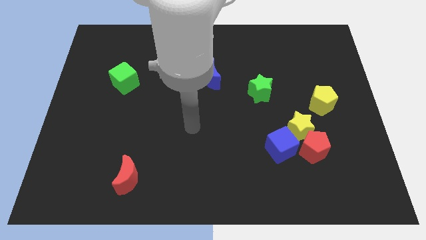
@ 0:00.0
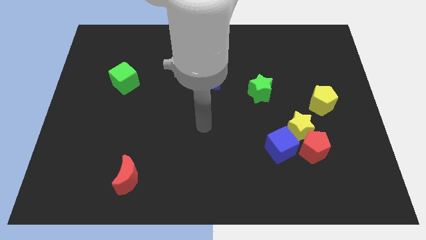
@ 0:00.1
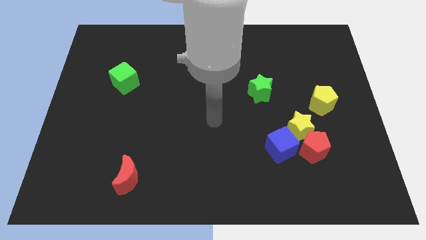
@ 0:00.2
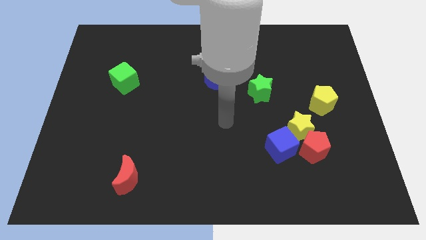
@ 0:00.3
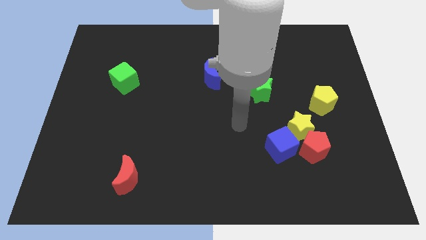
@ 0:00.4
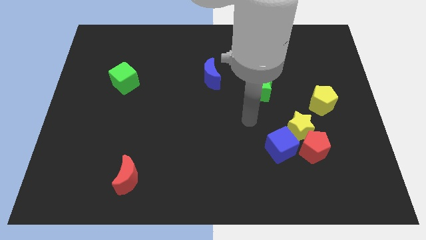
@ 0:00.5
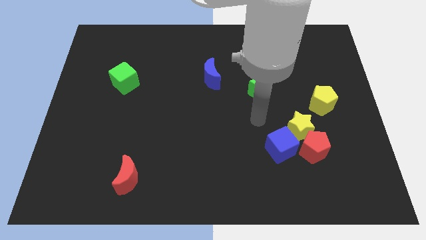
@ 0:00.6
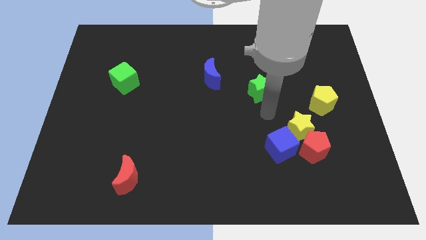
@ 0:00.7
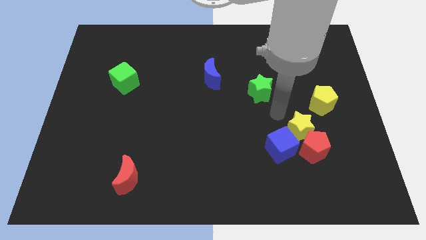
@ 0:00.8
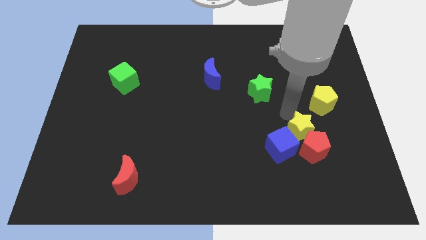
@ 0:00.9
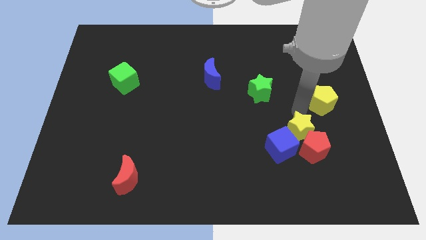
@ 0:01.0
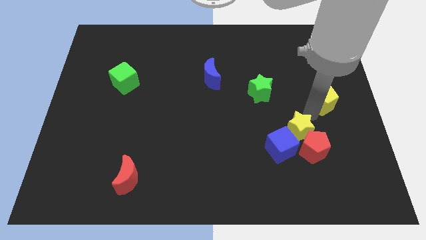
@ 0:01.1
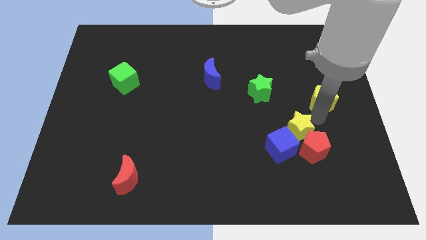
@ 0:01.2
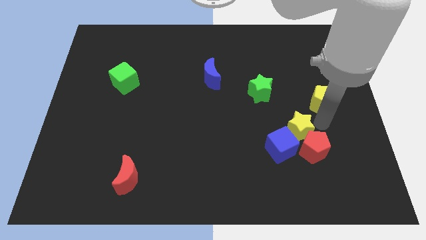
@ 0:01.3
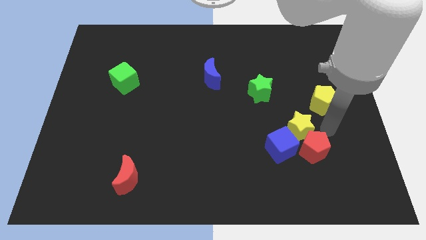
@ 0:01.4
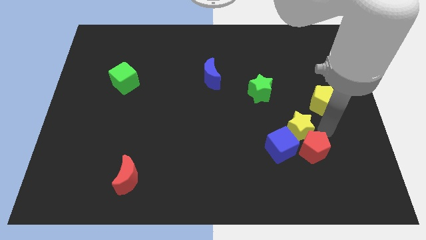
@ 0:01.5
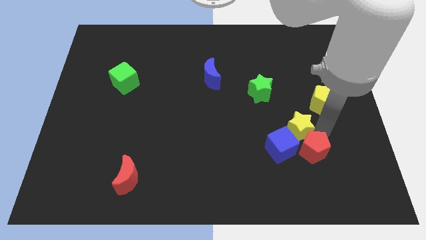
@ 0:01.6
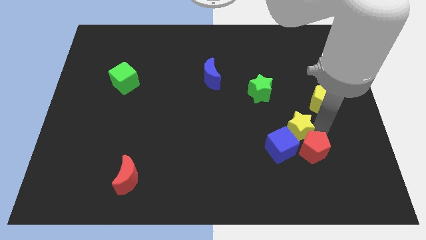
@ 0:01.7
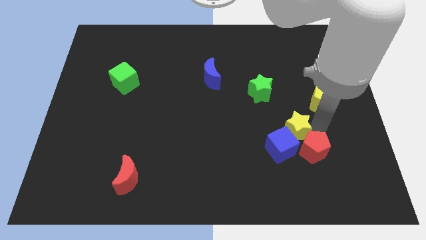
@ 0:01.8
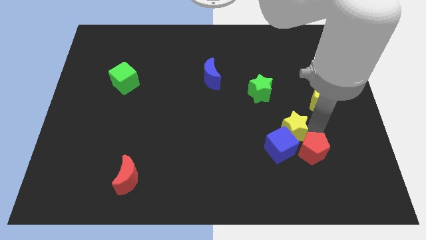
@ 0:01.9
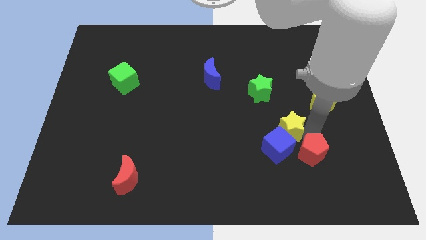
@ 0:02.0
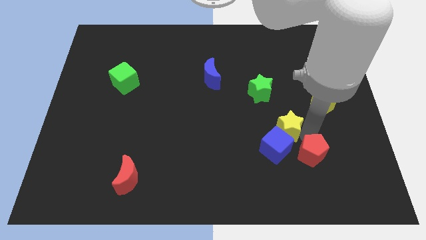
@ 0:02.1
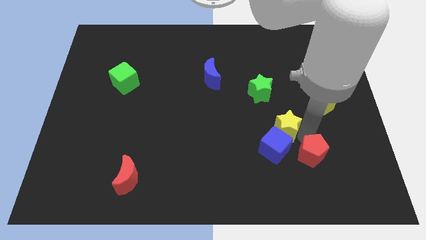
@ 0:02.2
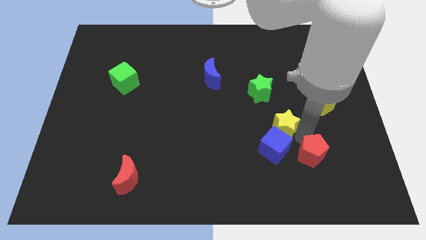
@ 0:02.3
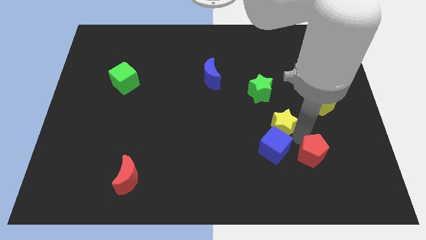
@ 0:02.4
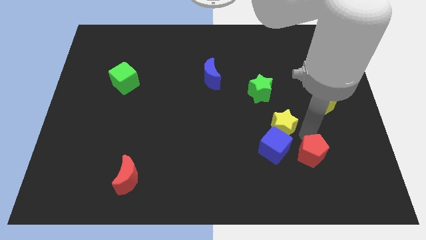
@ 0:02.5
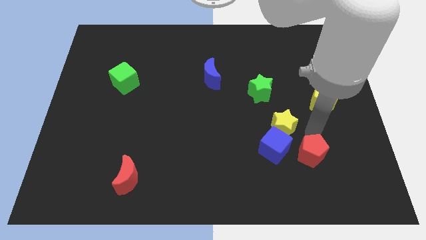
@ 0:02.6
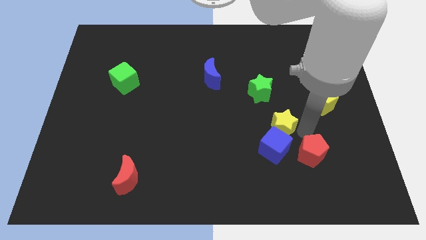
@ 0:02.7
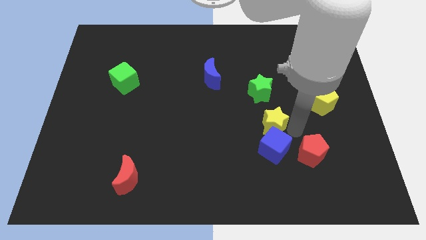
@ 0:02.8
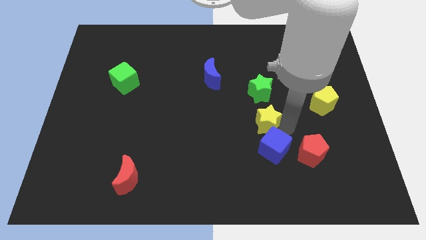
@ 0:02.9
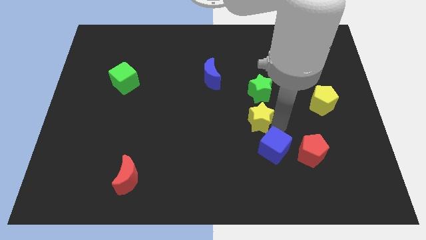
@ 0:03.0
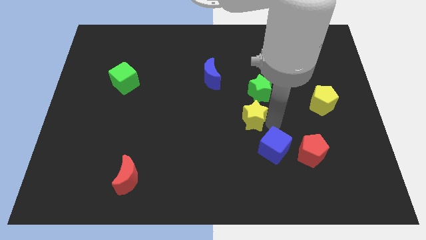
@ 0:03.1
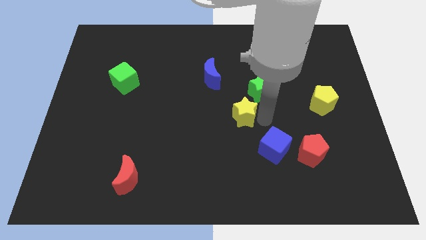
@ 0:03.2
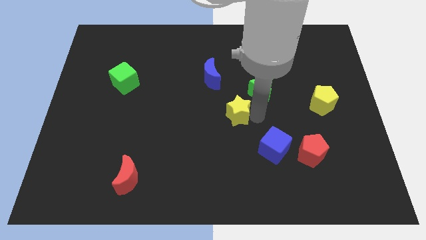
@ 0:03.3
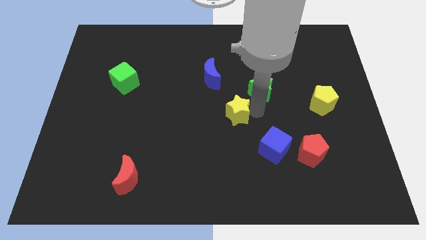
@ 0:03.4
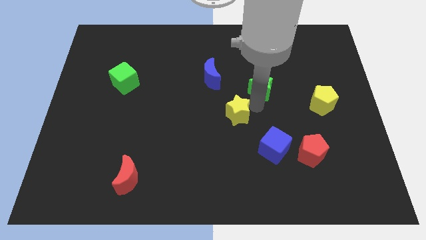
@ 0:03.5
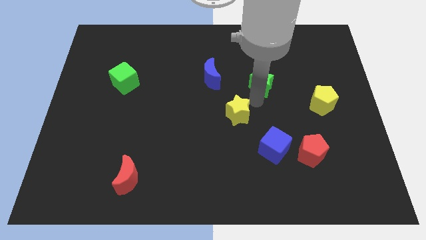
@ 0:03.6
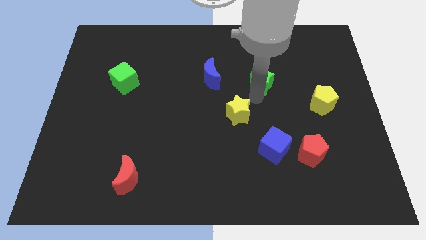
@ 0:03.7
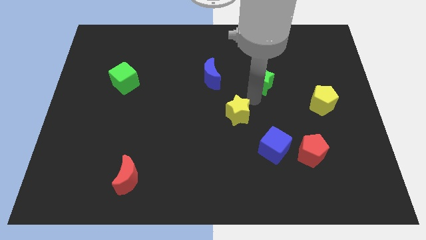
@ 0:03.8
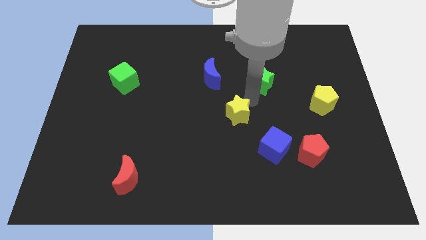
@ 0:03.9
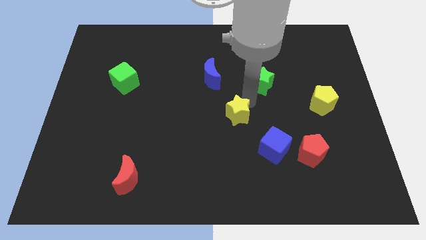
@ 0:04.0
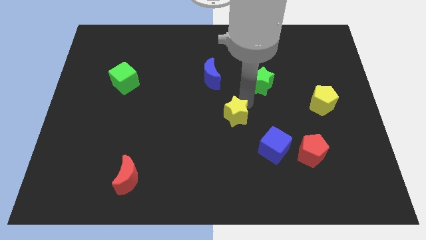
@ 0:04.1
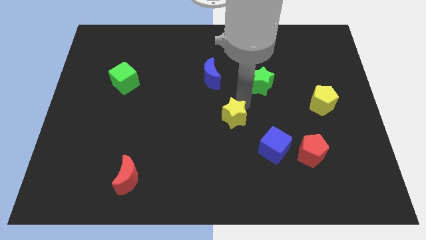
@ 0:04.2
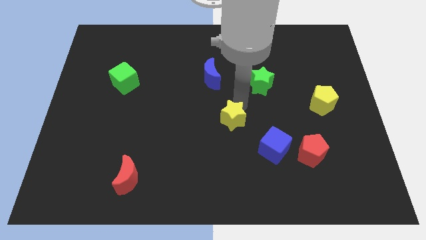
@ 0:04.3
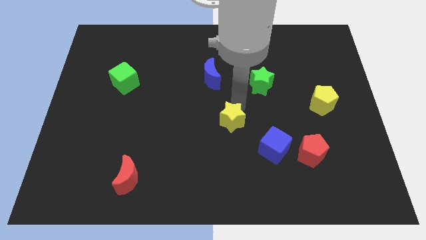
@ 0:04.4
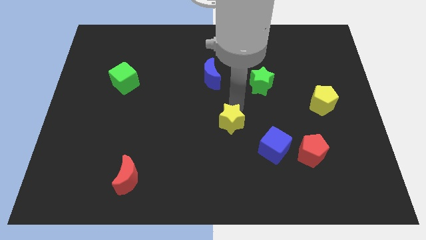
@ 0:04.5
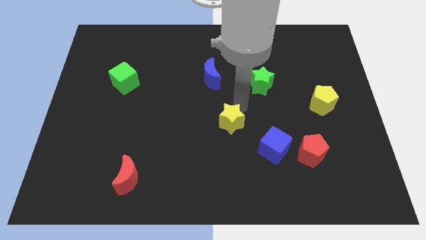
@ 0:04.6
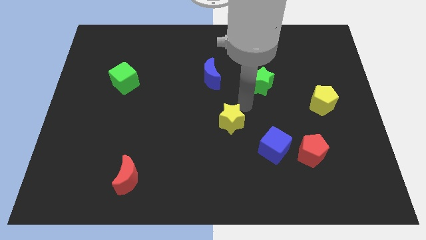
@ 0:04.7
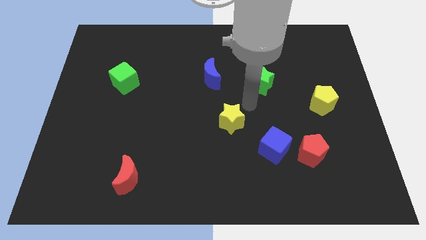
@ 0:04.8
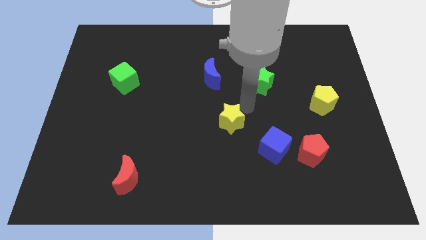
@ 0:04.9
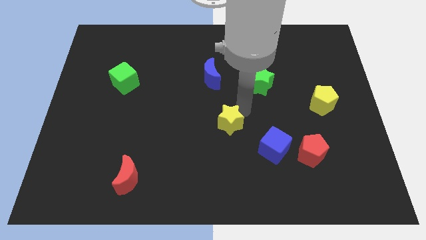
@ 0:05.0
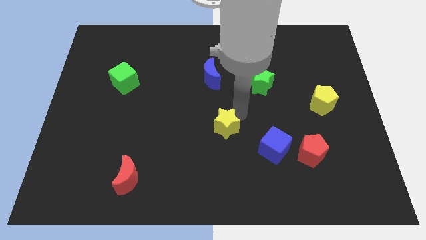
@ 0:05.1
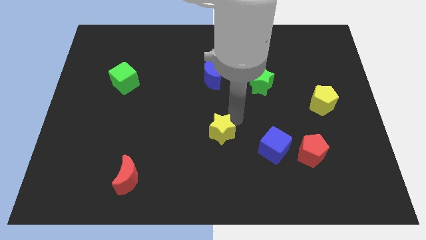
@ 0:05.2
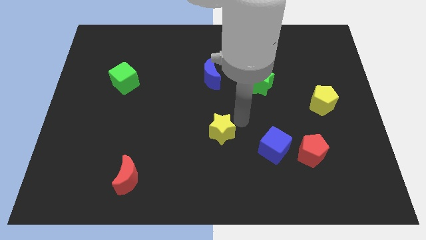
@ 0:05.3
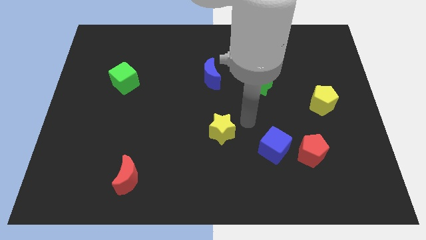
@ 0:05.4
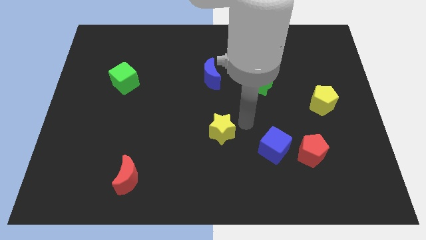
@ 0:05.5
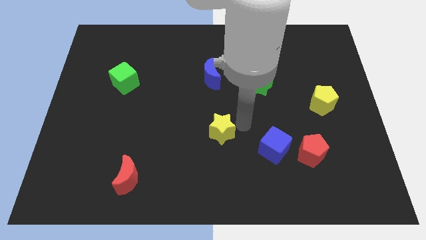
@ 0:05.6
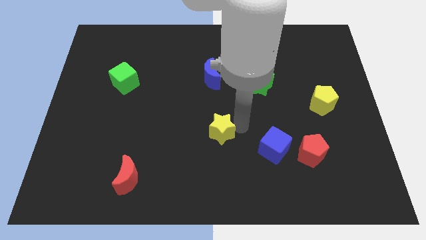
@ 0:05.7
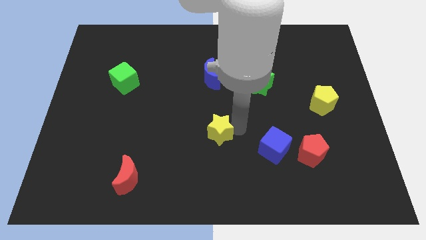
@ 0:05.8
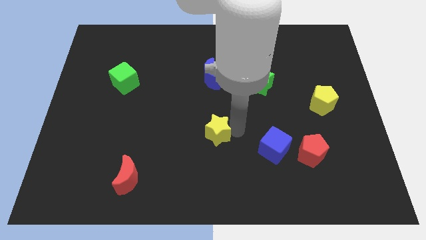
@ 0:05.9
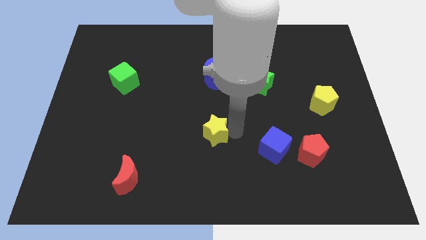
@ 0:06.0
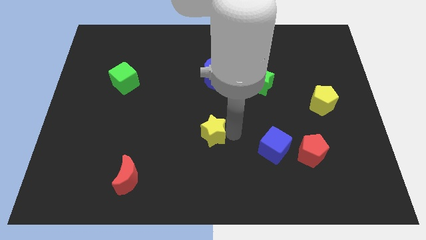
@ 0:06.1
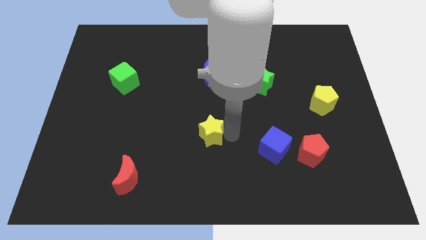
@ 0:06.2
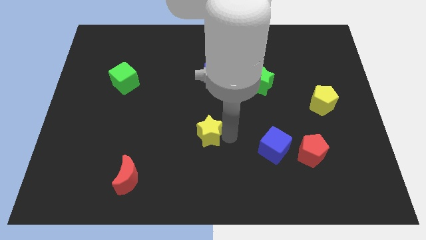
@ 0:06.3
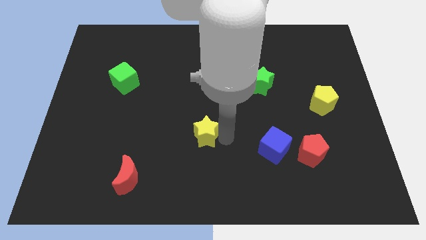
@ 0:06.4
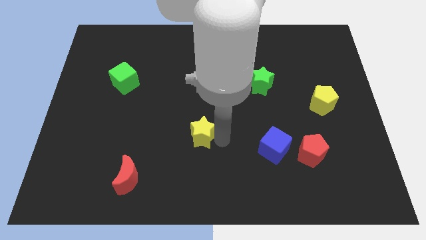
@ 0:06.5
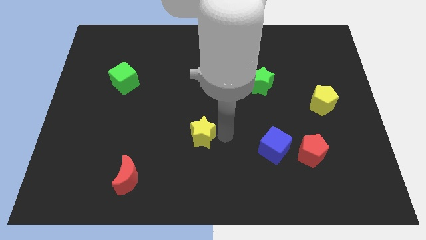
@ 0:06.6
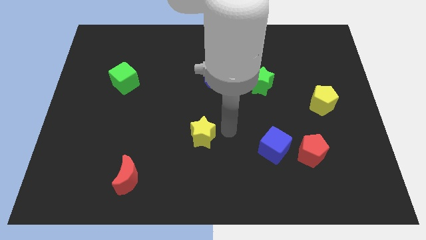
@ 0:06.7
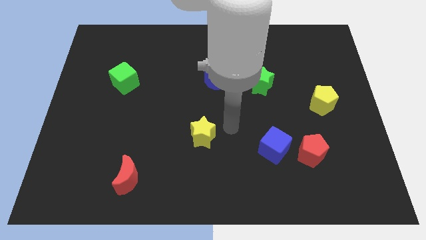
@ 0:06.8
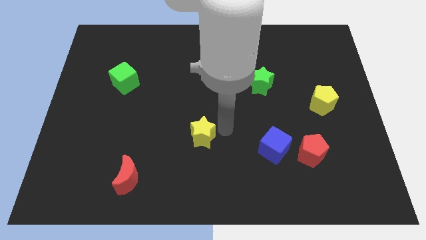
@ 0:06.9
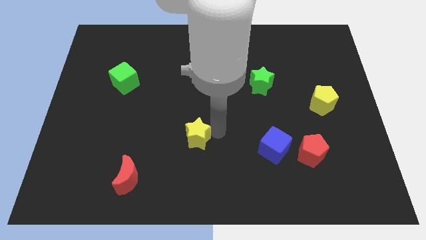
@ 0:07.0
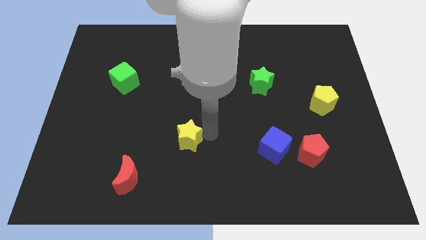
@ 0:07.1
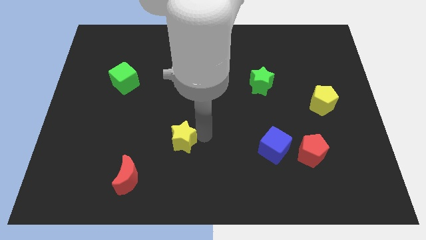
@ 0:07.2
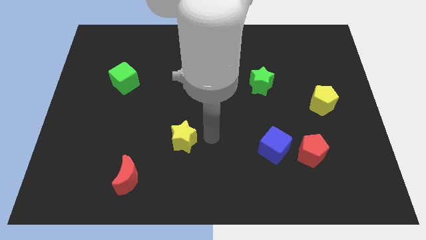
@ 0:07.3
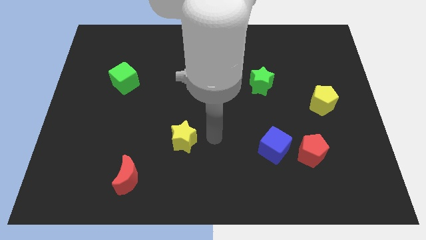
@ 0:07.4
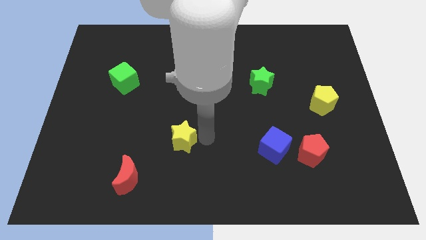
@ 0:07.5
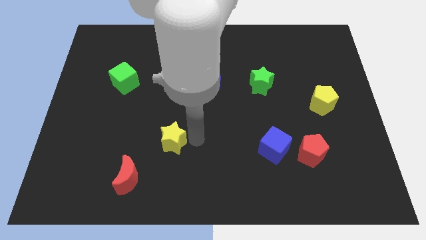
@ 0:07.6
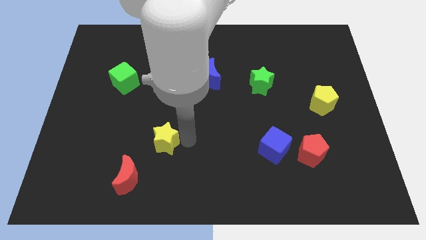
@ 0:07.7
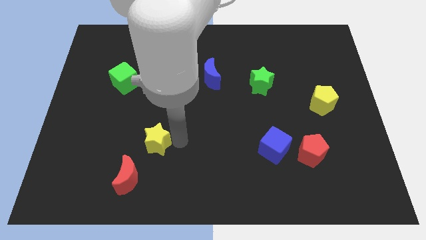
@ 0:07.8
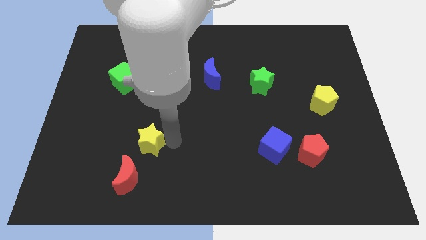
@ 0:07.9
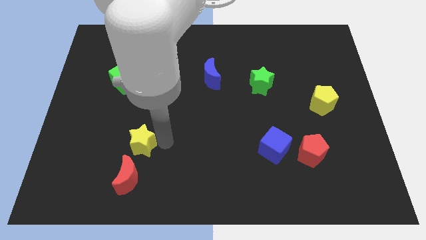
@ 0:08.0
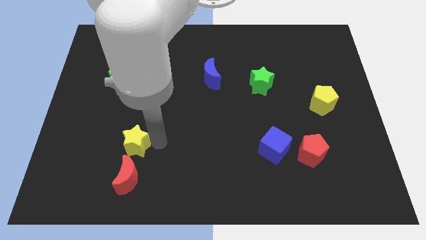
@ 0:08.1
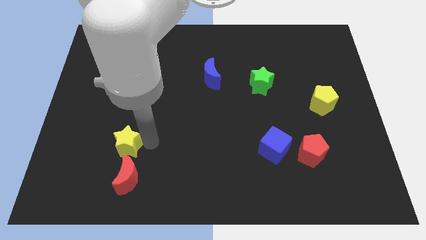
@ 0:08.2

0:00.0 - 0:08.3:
slide the yellow star to the top left of the red moon
